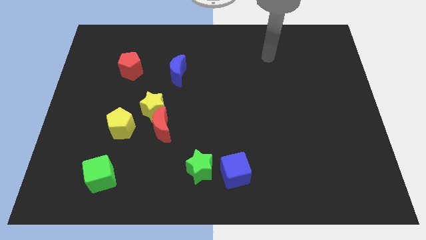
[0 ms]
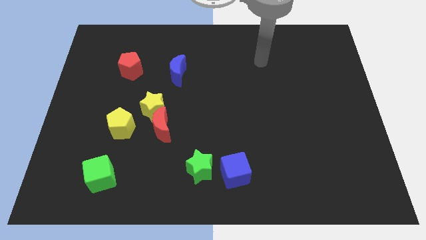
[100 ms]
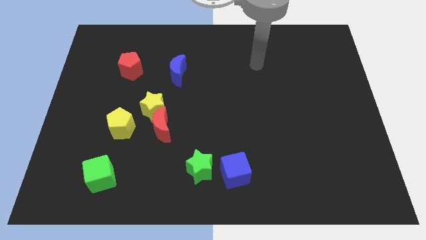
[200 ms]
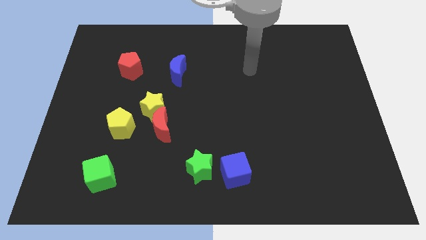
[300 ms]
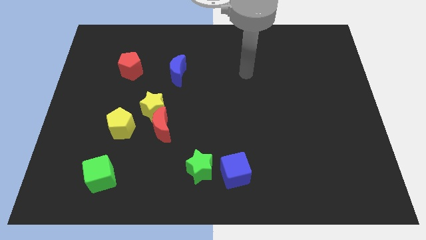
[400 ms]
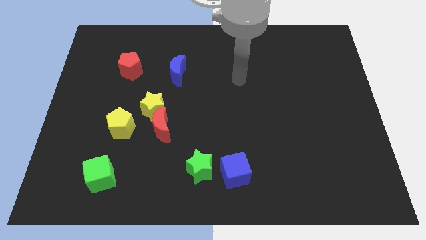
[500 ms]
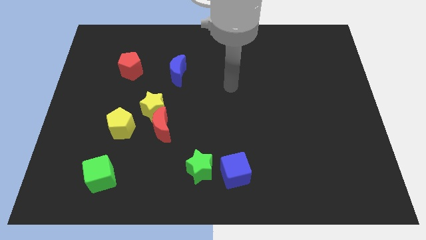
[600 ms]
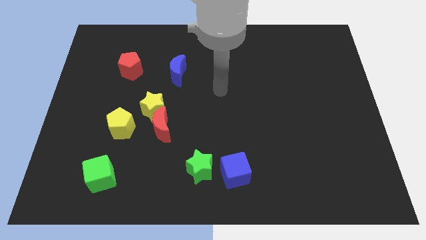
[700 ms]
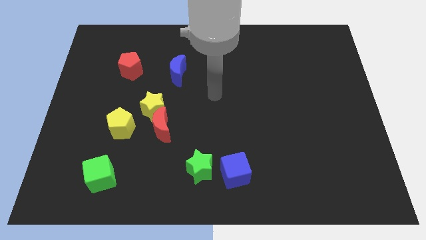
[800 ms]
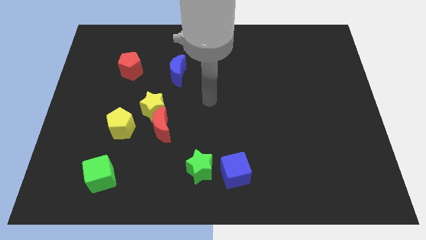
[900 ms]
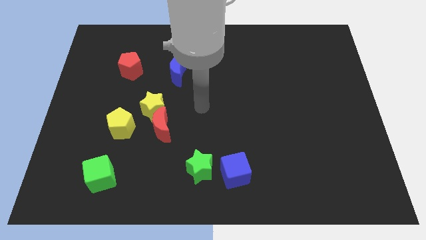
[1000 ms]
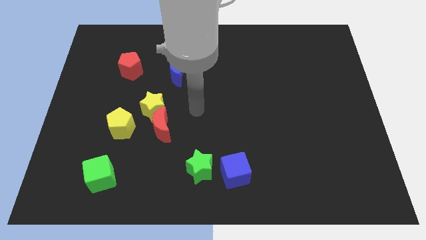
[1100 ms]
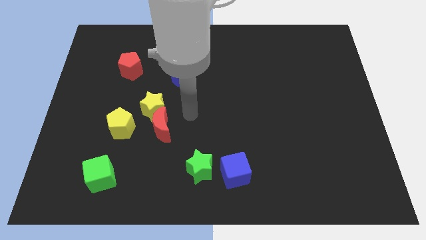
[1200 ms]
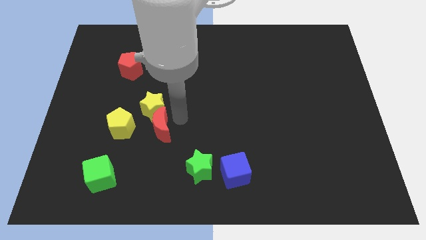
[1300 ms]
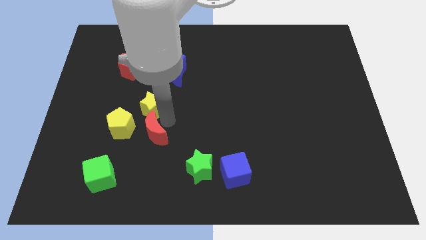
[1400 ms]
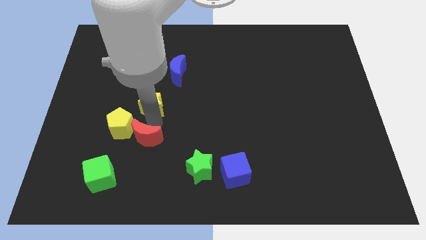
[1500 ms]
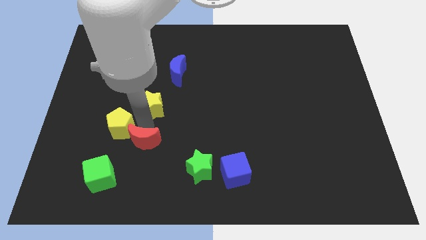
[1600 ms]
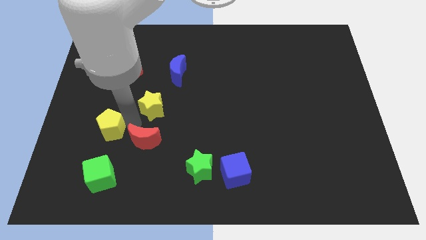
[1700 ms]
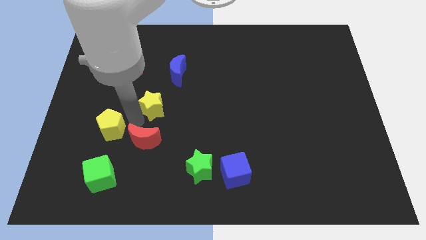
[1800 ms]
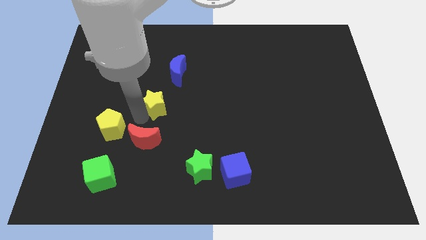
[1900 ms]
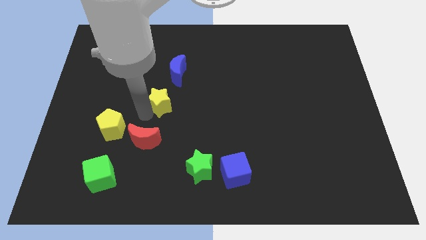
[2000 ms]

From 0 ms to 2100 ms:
pull the yellow star apart from the red moon and yellow pentagon

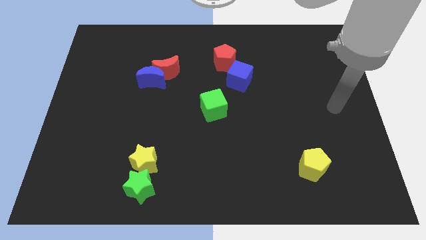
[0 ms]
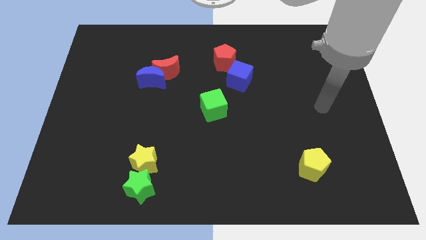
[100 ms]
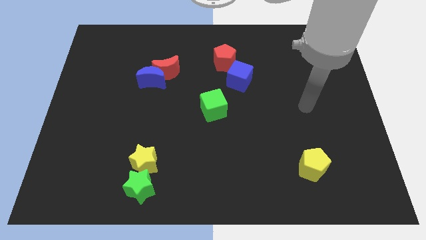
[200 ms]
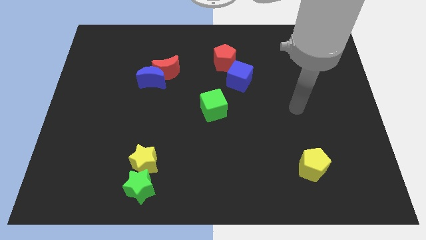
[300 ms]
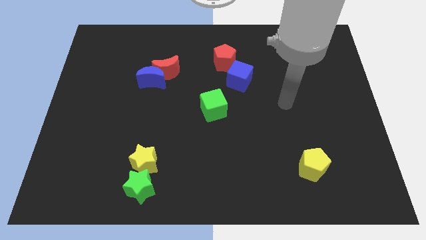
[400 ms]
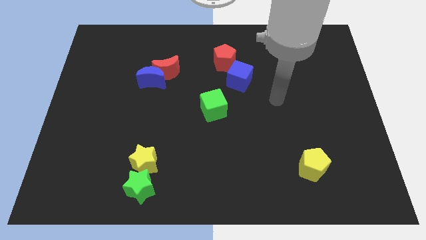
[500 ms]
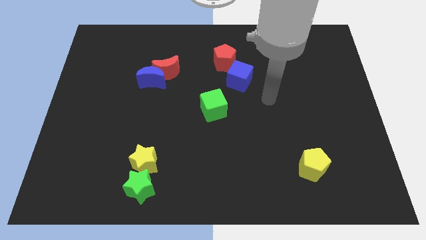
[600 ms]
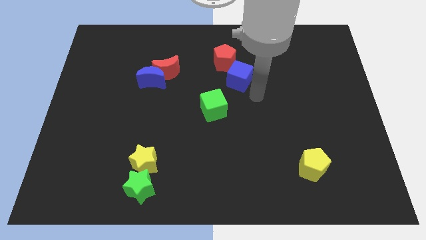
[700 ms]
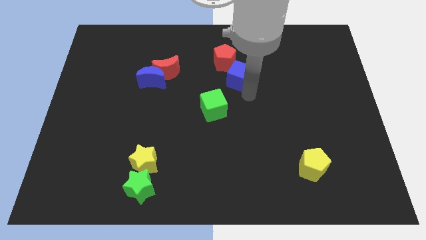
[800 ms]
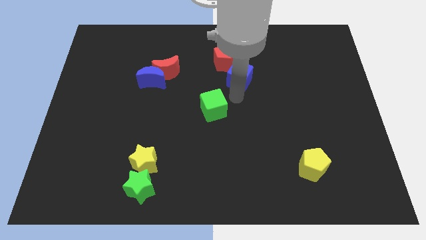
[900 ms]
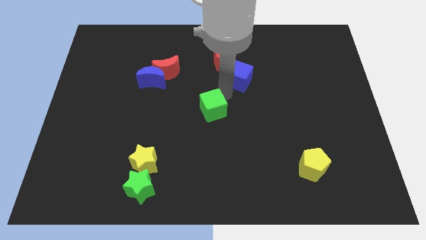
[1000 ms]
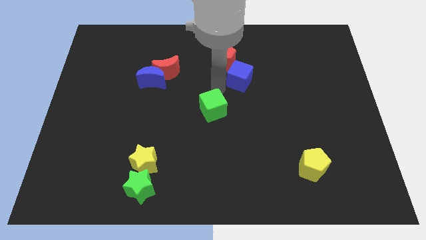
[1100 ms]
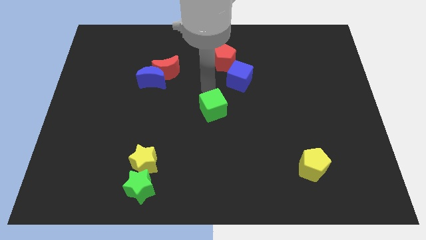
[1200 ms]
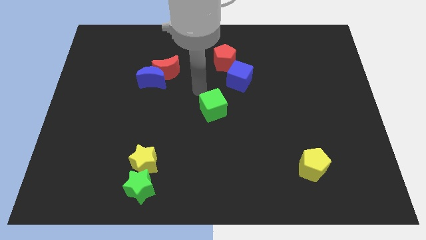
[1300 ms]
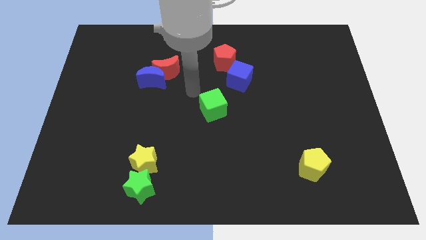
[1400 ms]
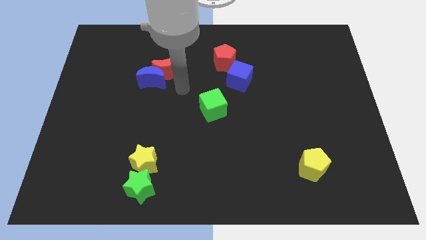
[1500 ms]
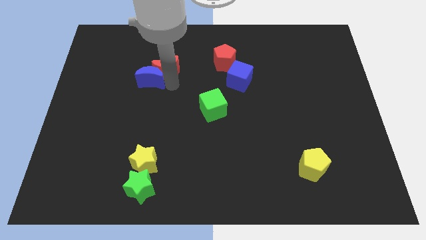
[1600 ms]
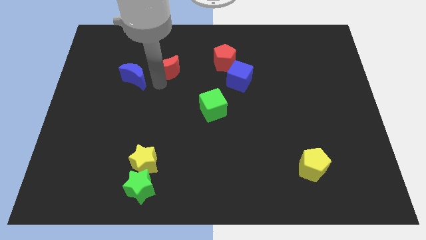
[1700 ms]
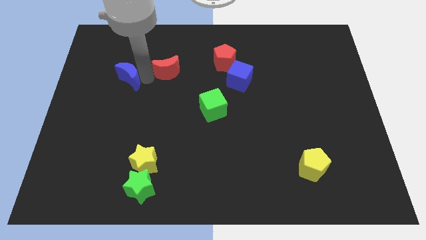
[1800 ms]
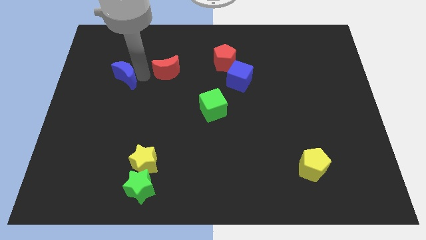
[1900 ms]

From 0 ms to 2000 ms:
pull the red moon apart from the blue moon

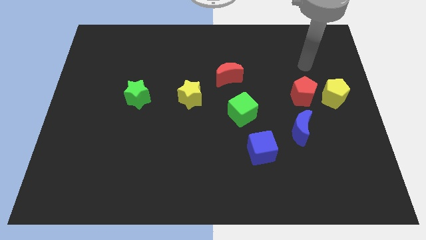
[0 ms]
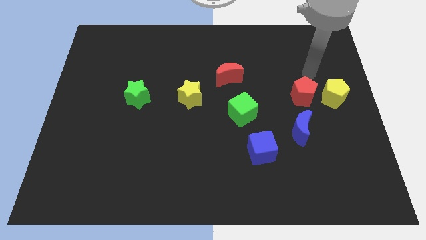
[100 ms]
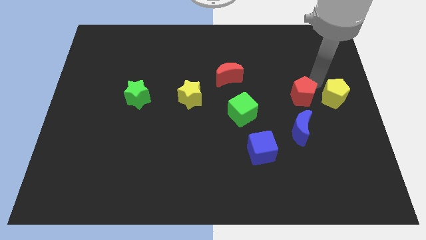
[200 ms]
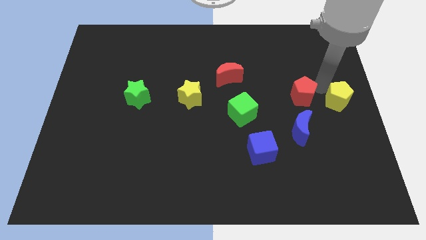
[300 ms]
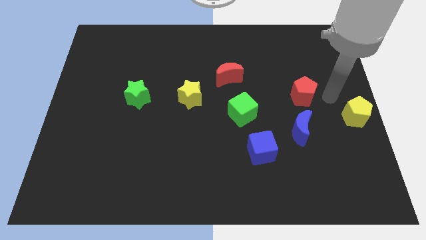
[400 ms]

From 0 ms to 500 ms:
move the red pentagon away from the yellow pentagon

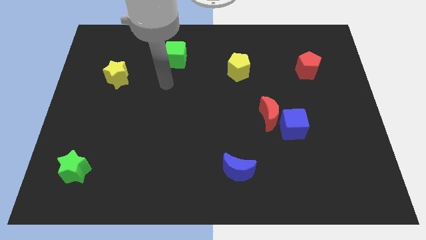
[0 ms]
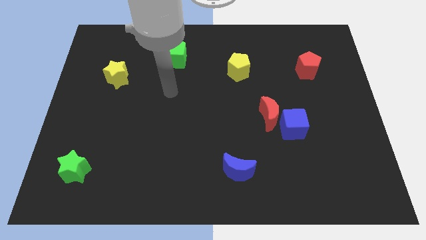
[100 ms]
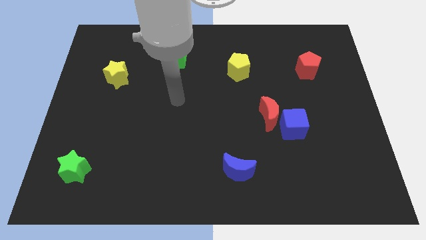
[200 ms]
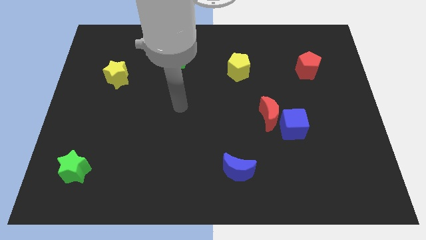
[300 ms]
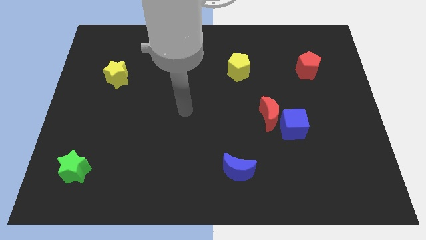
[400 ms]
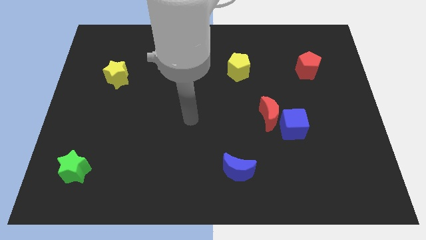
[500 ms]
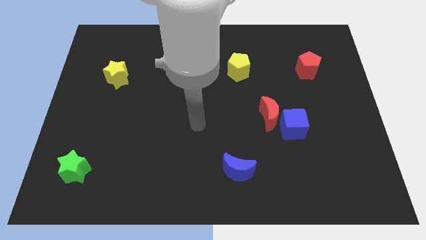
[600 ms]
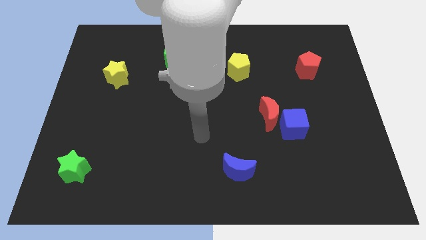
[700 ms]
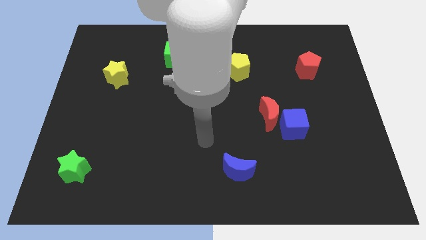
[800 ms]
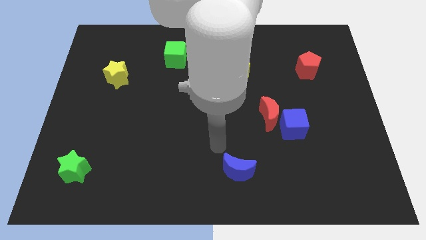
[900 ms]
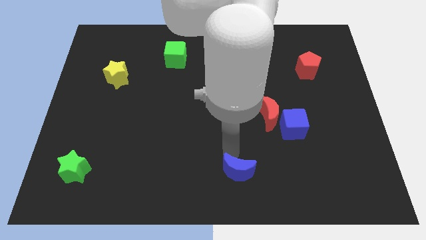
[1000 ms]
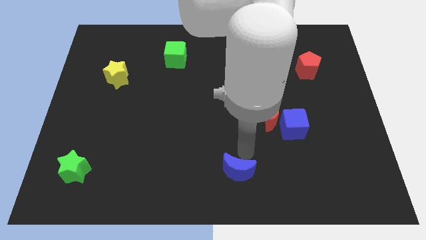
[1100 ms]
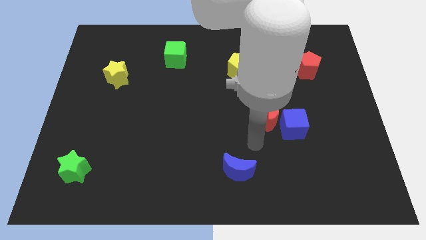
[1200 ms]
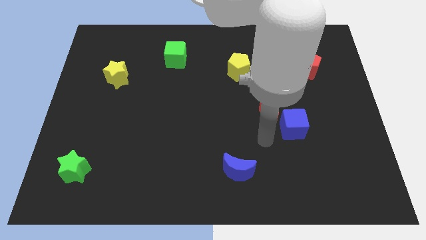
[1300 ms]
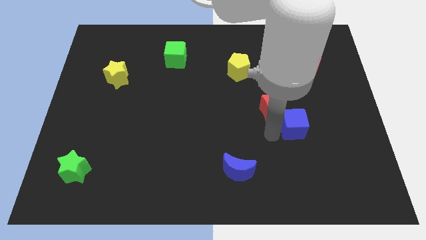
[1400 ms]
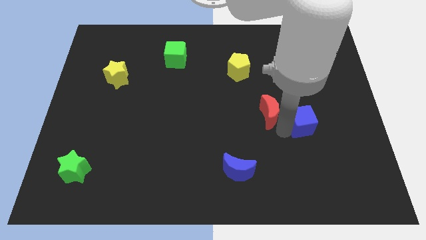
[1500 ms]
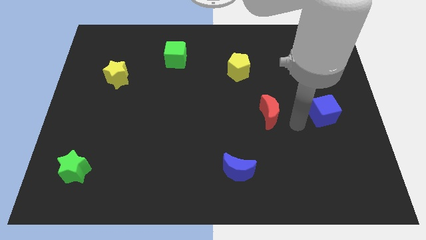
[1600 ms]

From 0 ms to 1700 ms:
separate the red moon from the blue cube

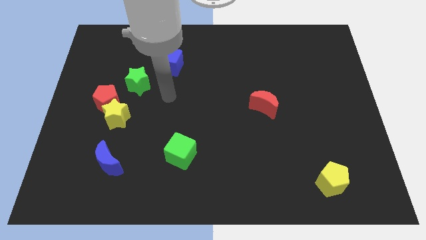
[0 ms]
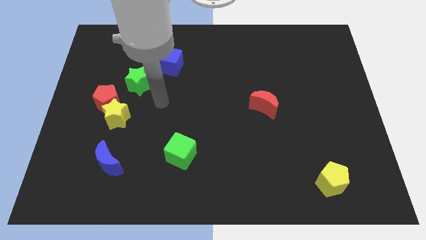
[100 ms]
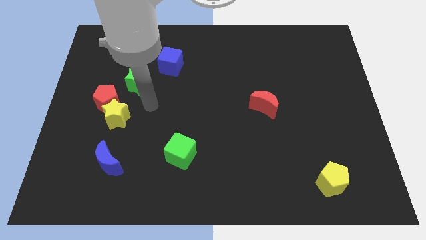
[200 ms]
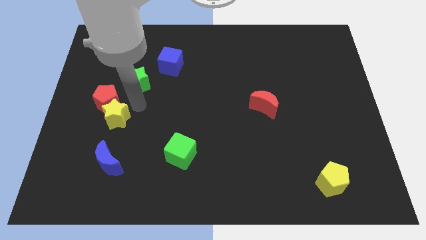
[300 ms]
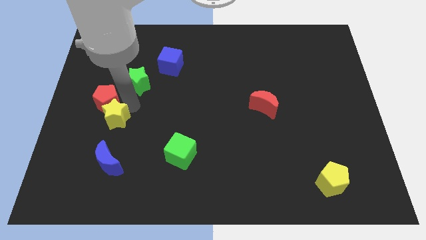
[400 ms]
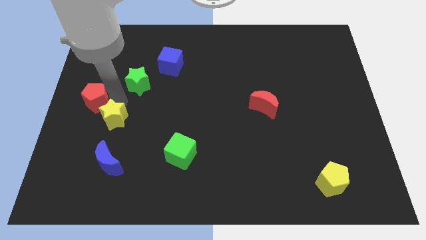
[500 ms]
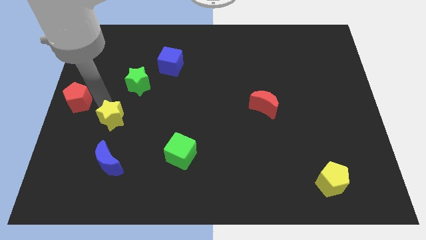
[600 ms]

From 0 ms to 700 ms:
pull the yellow star apart from the red pentagon

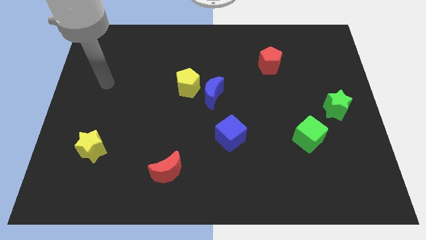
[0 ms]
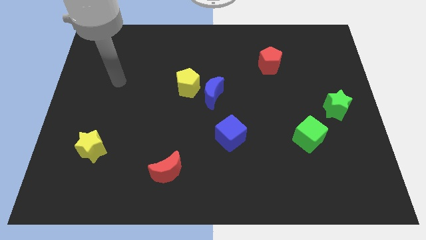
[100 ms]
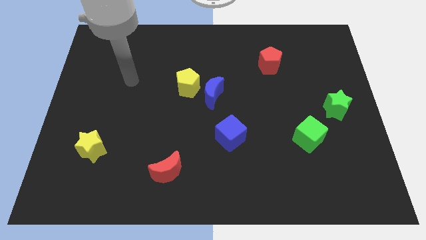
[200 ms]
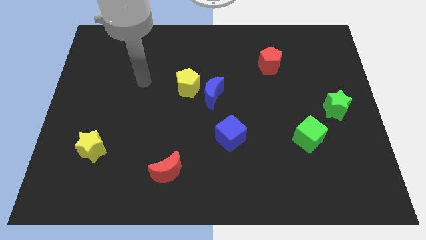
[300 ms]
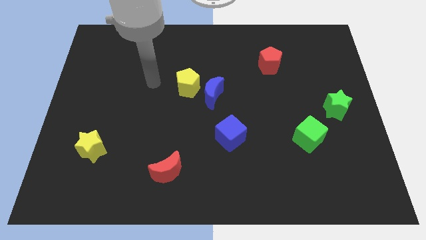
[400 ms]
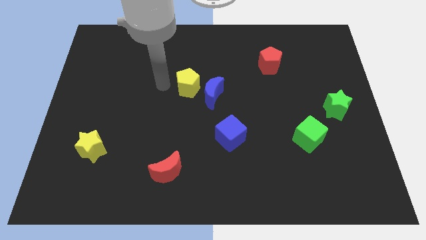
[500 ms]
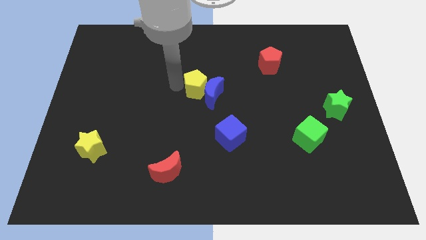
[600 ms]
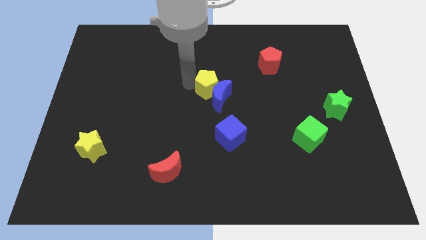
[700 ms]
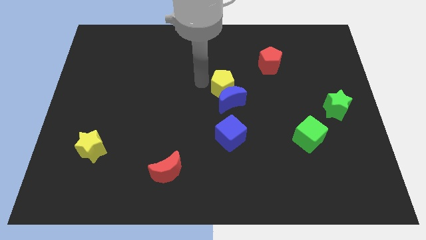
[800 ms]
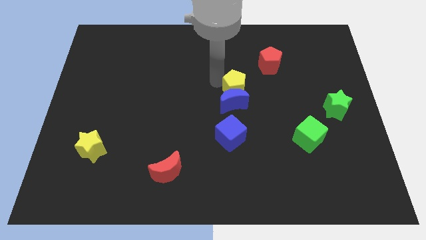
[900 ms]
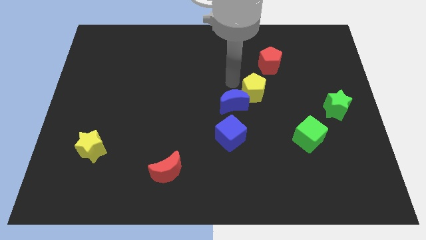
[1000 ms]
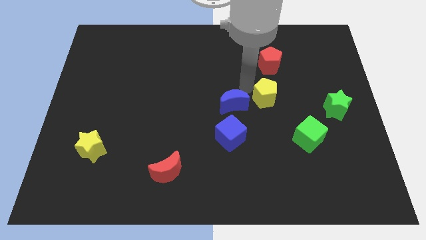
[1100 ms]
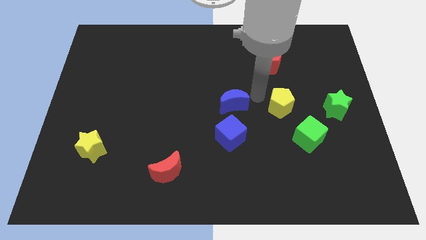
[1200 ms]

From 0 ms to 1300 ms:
separate the blue moon from the yellow pentagon

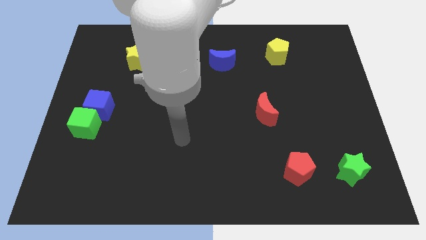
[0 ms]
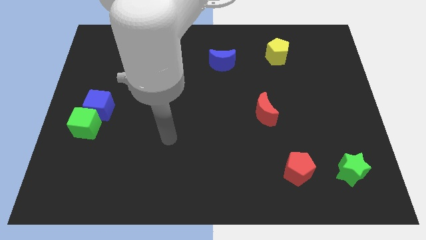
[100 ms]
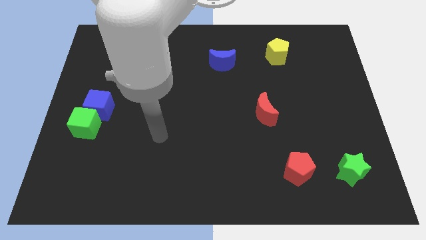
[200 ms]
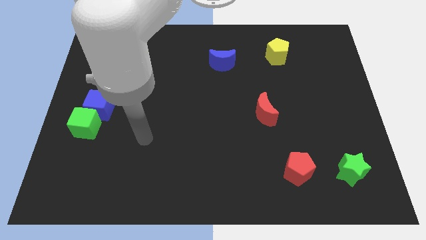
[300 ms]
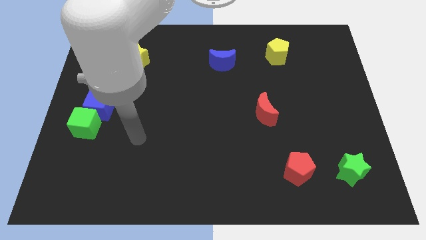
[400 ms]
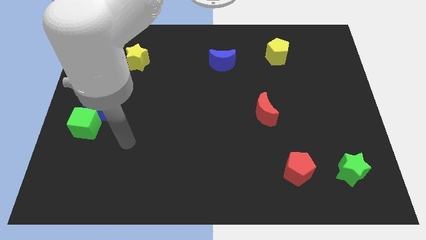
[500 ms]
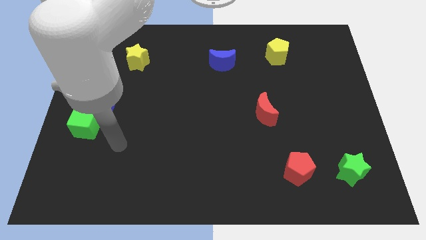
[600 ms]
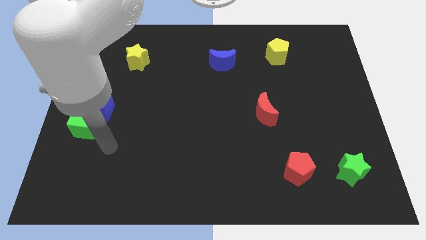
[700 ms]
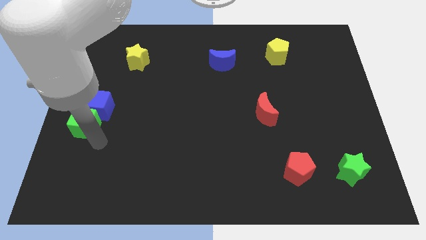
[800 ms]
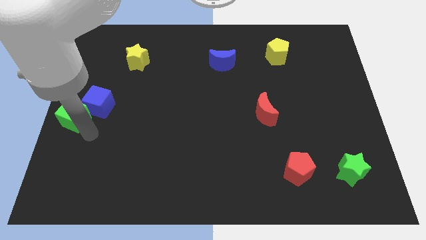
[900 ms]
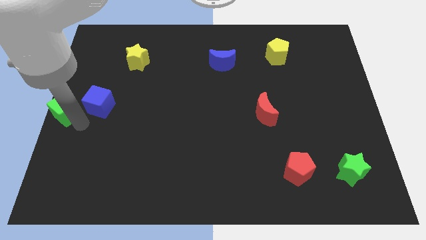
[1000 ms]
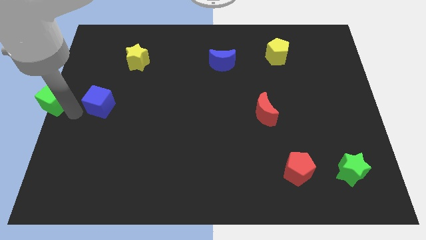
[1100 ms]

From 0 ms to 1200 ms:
move the blue cube away from the green cube

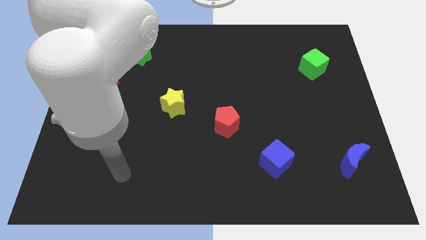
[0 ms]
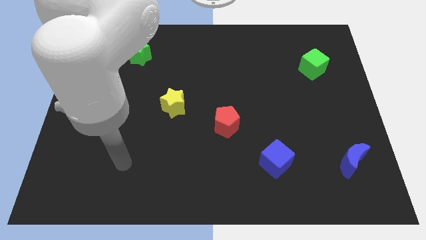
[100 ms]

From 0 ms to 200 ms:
move the red moon away from the green star
